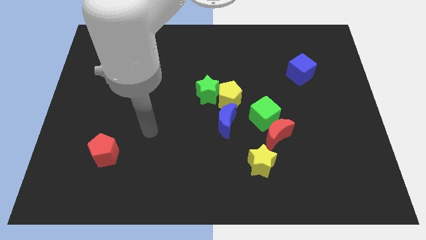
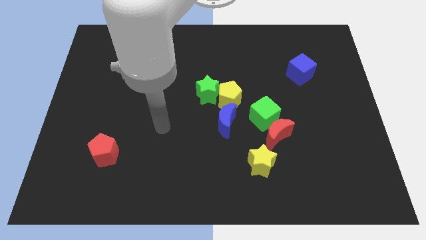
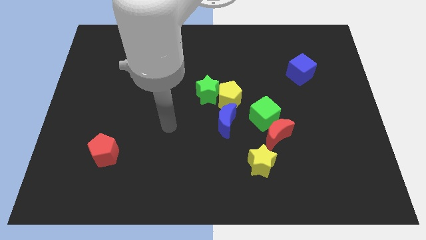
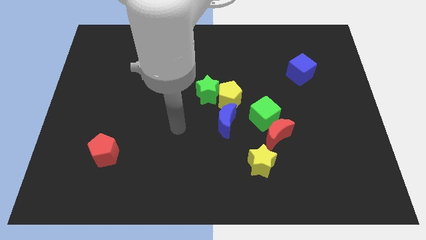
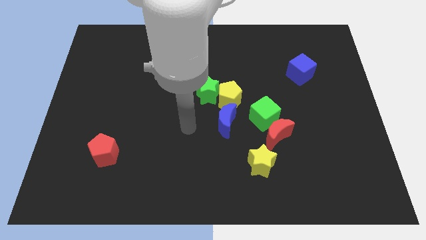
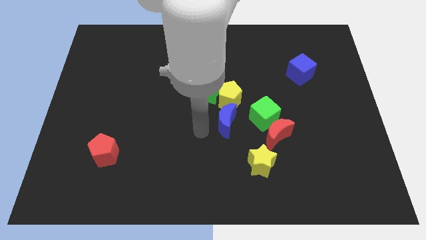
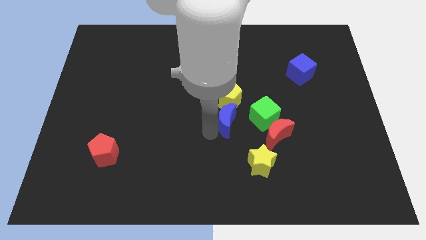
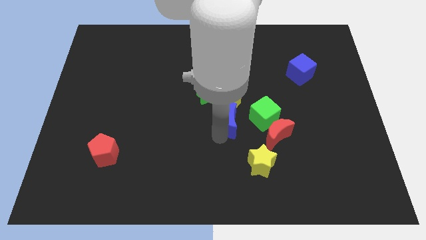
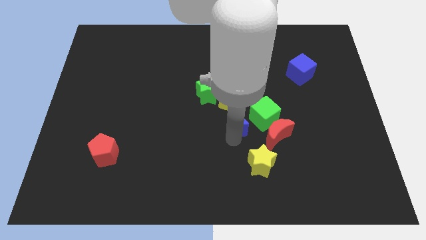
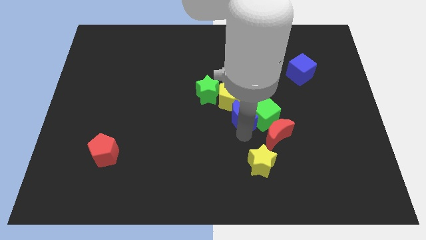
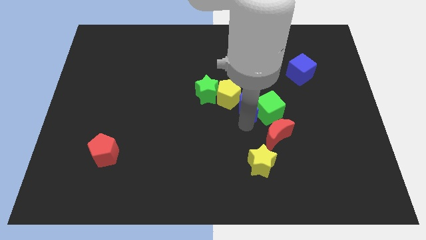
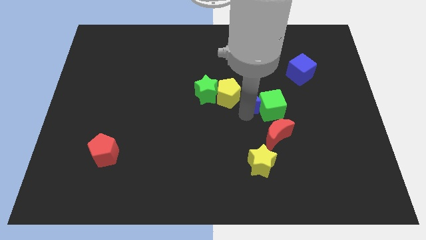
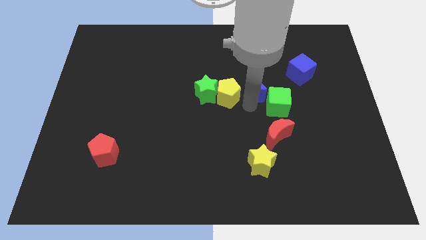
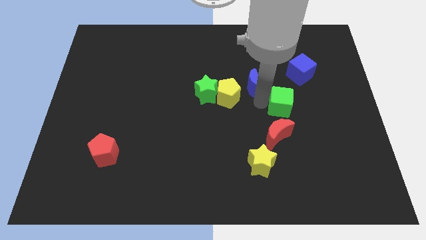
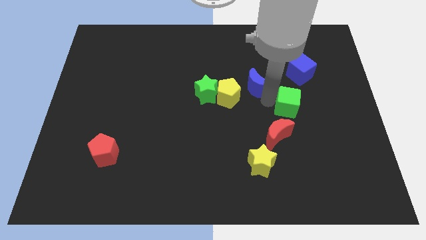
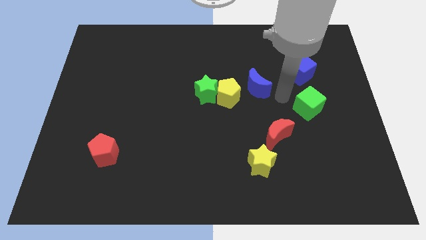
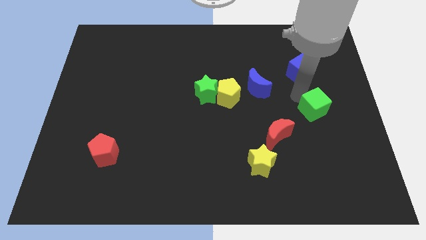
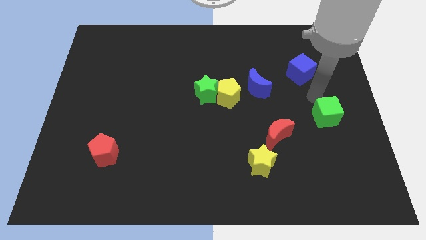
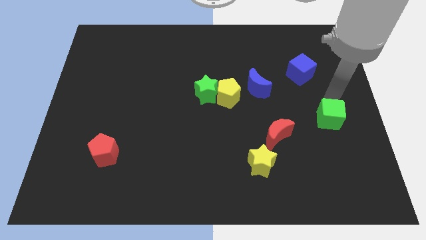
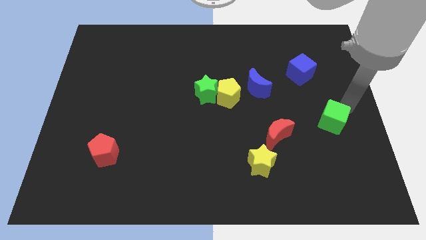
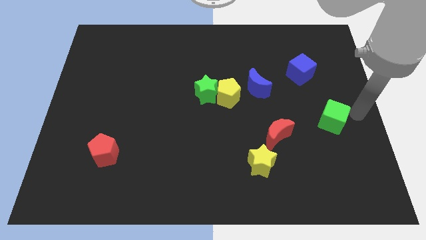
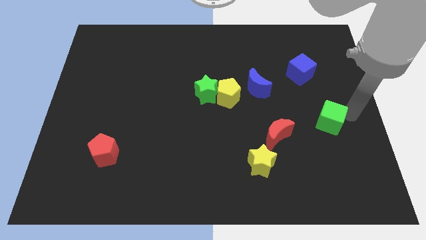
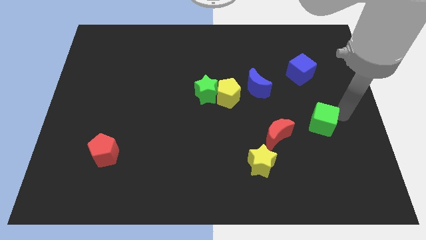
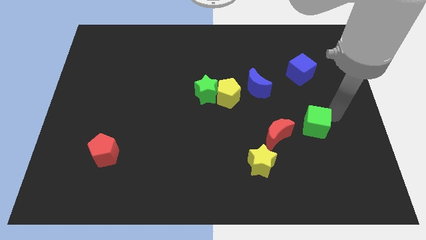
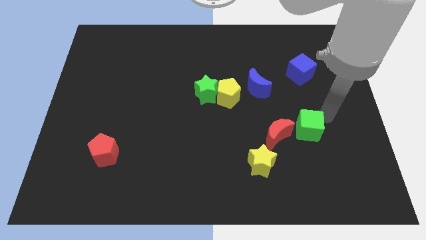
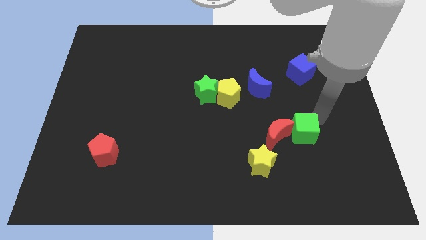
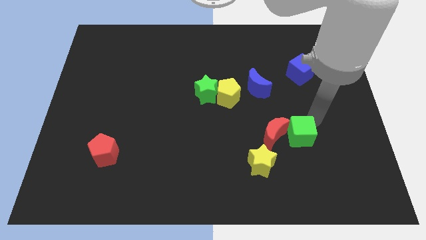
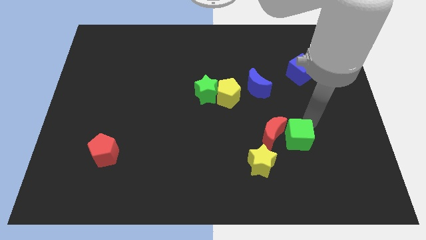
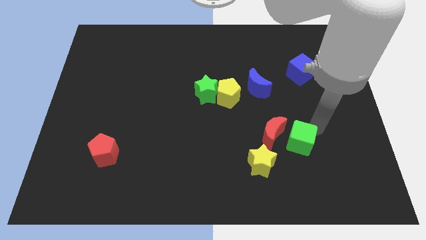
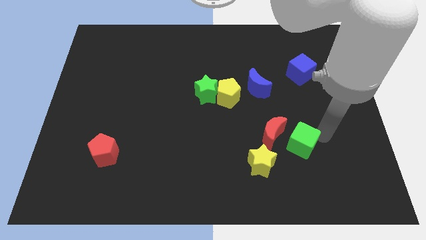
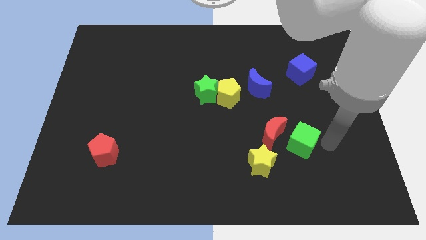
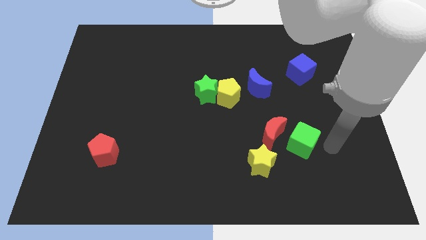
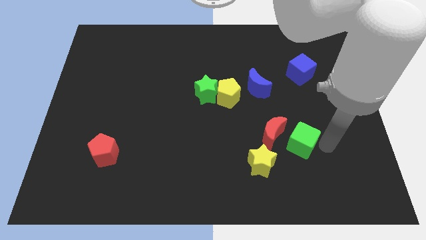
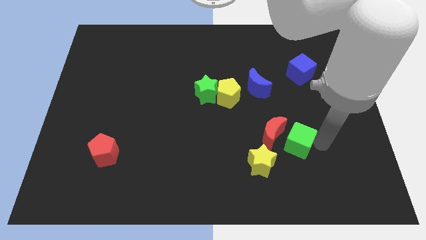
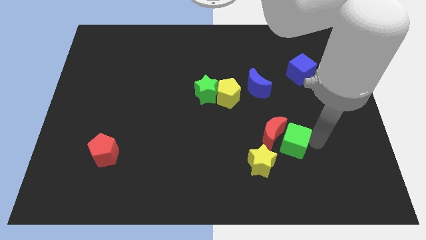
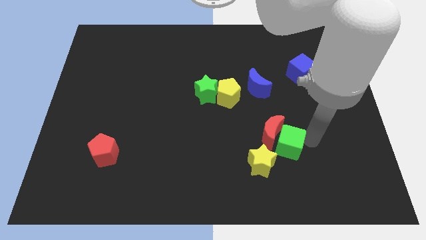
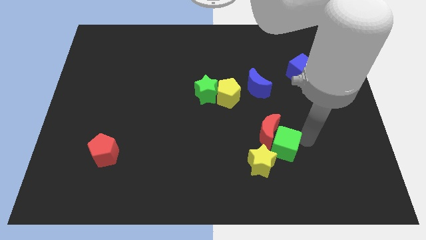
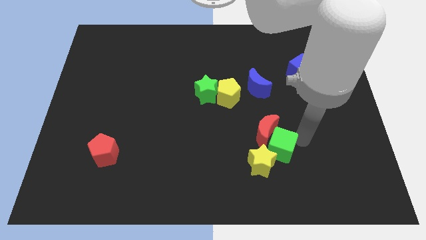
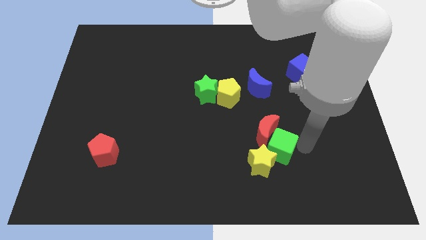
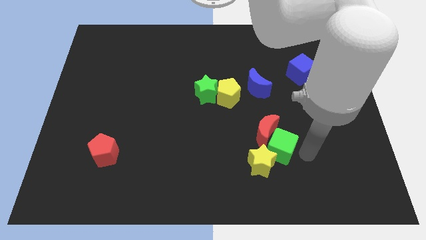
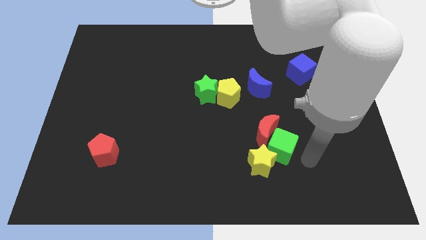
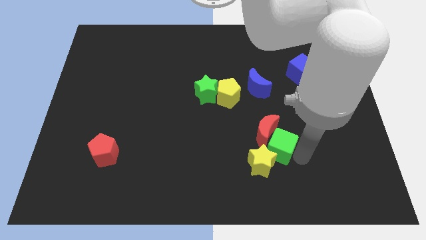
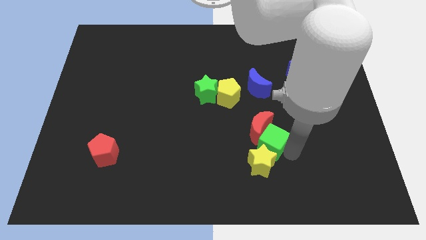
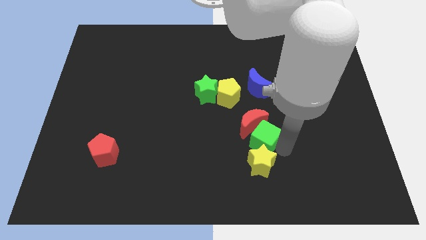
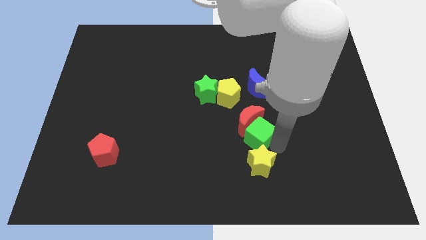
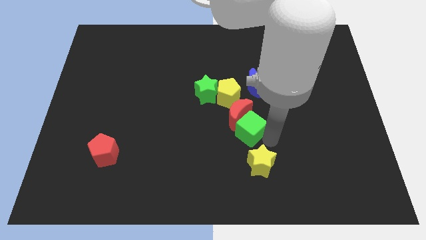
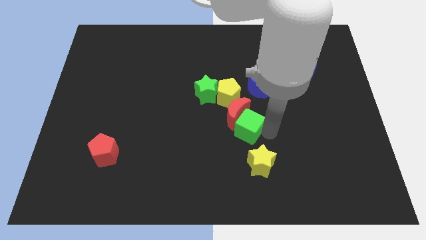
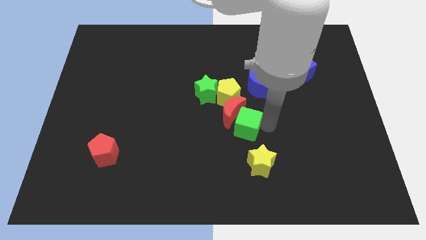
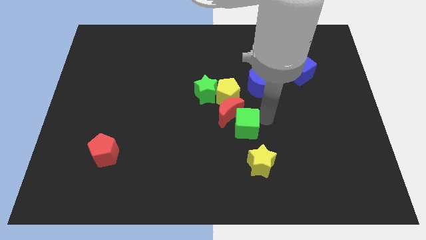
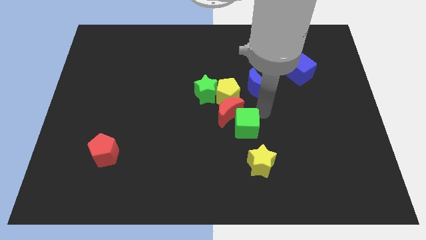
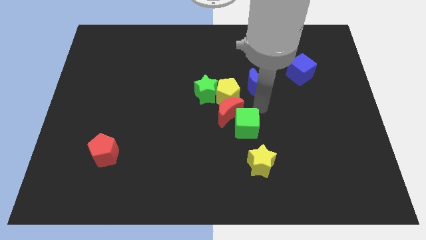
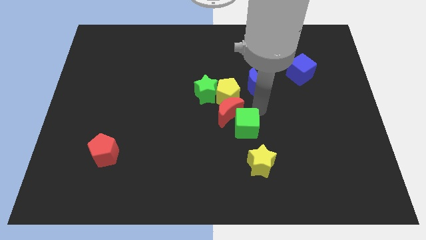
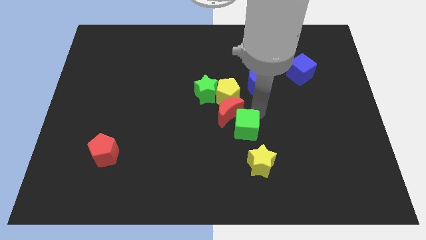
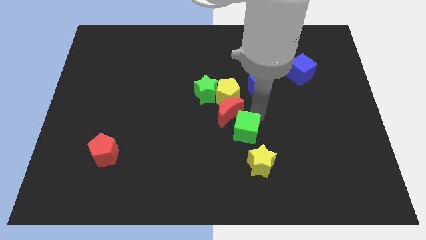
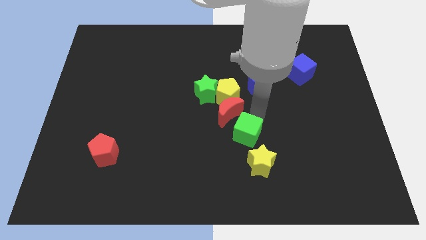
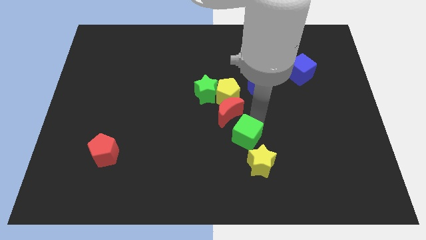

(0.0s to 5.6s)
push the green cube diagonally down and left a little

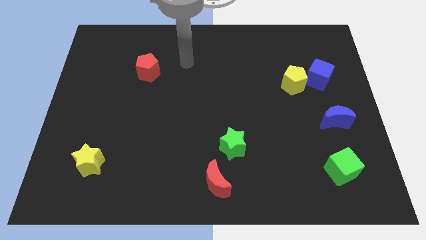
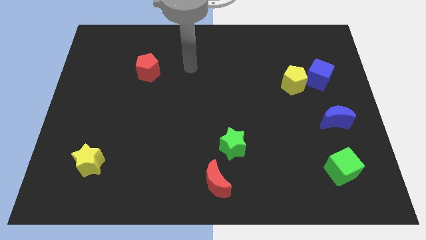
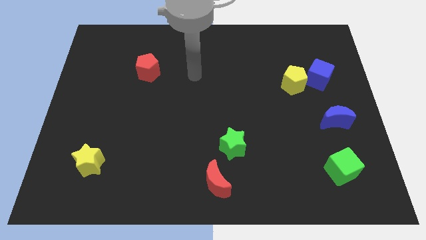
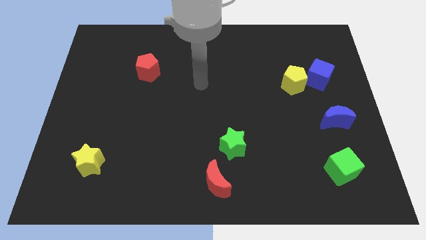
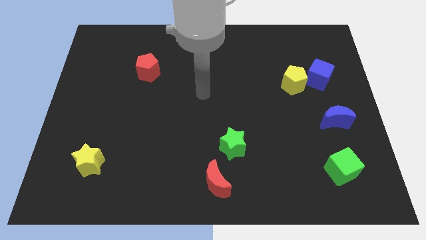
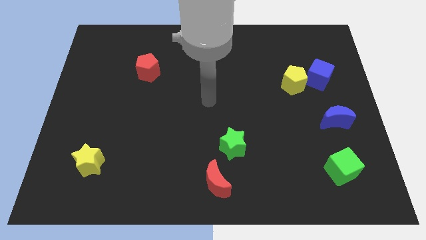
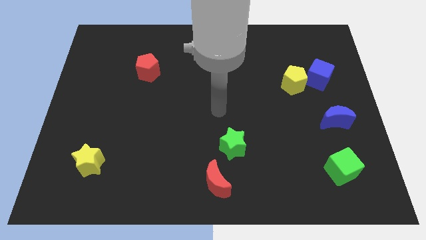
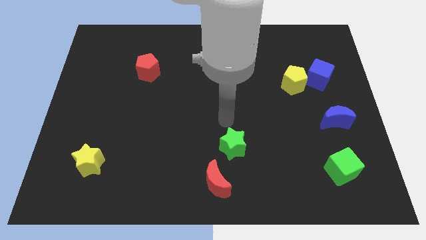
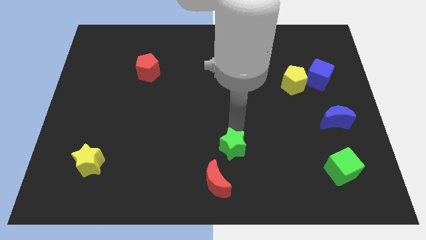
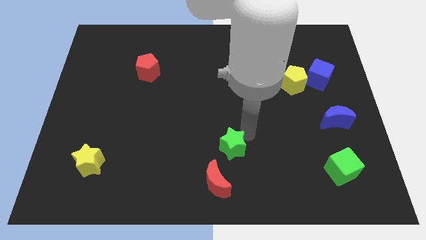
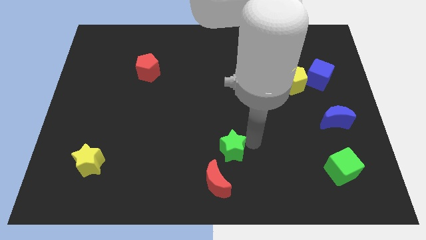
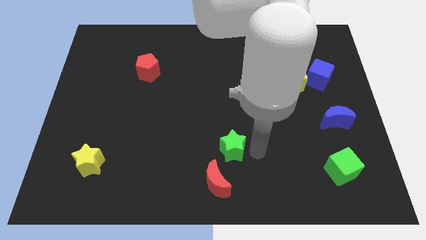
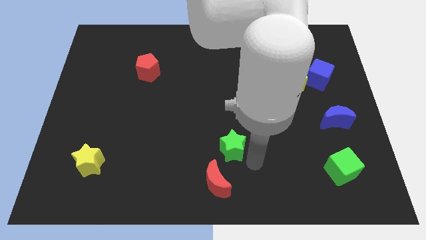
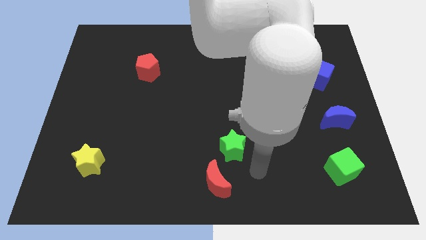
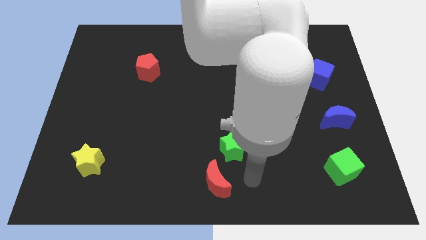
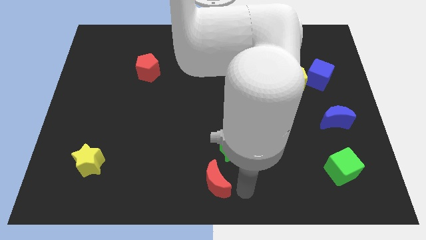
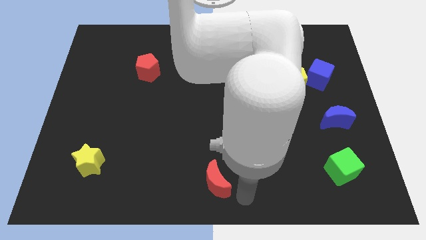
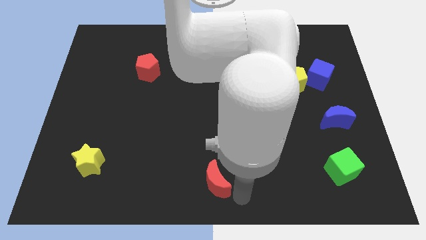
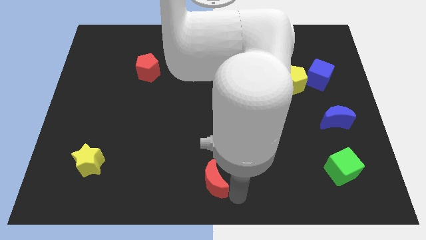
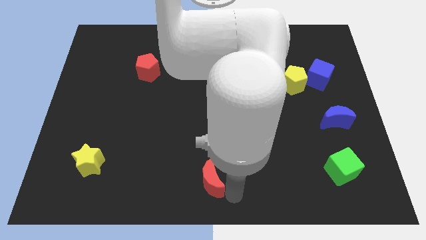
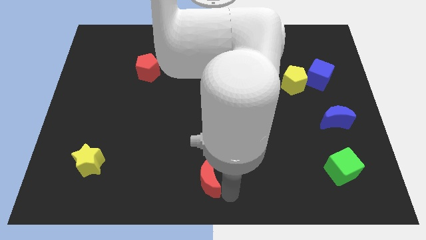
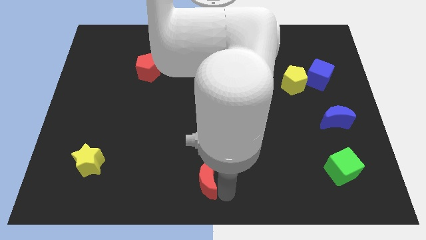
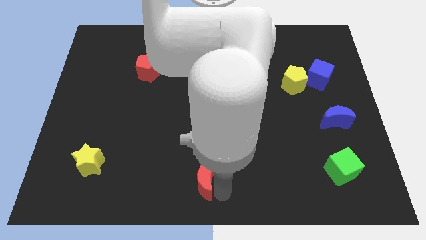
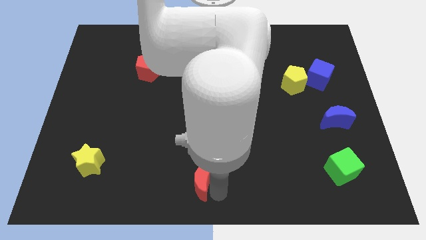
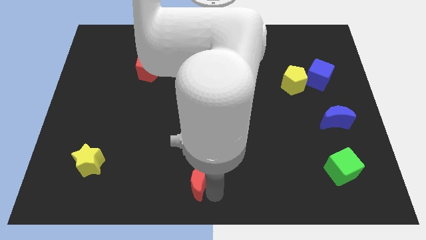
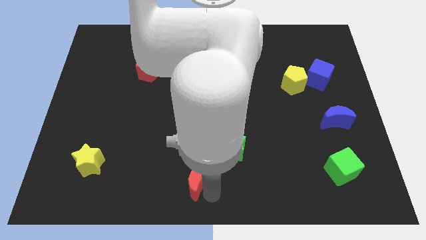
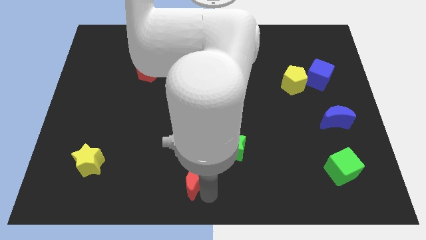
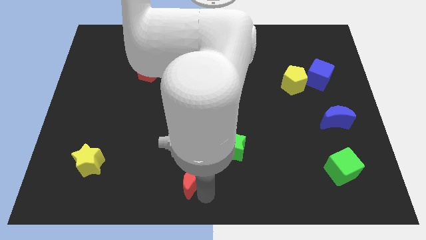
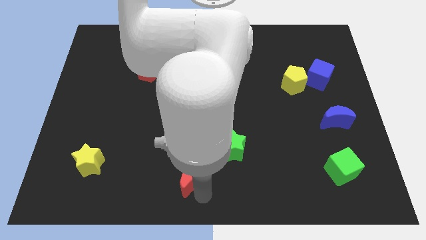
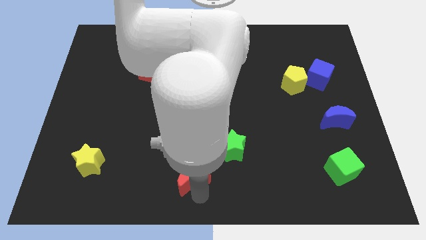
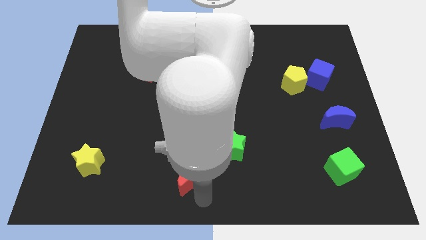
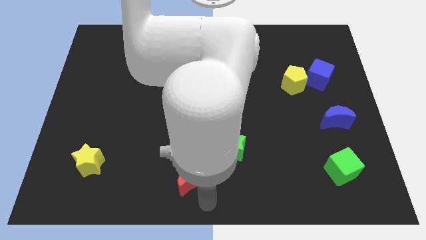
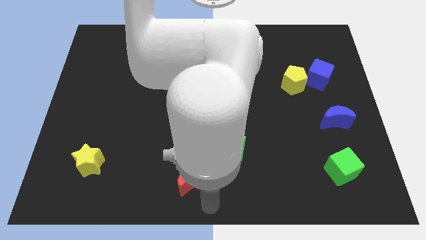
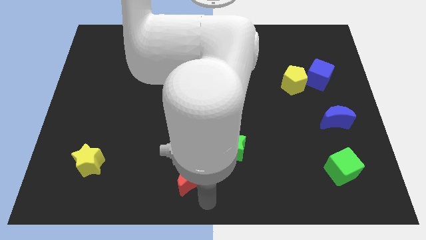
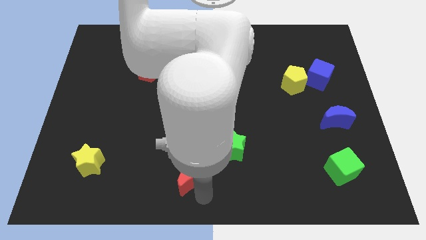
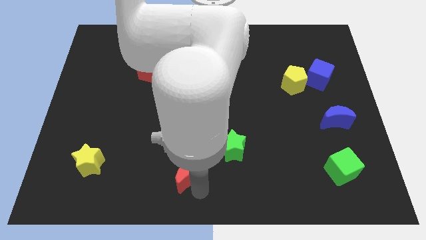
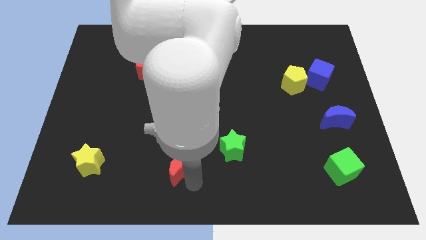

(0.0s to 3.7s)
push the red moon a little bit up and then left
